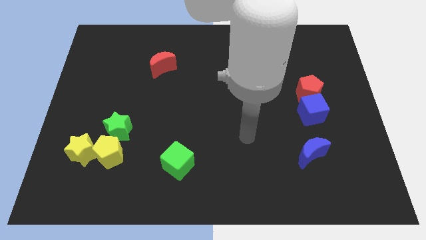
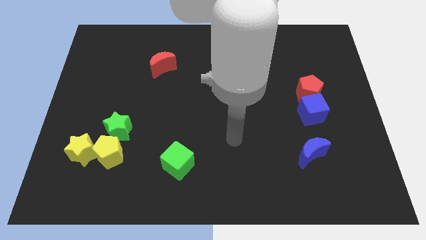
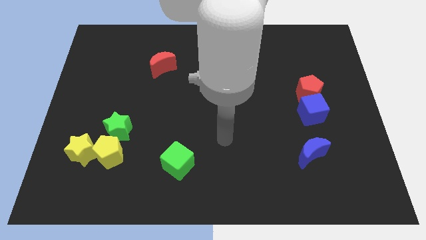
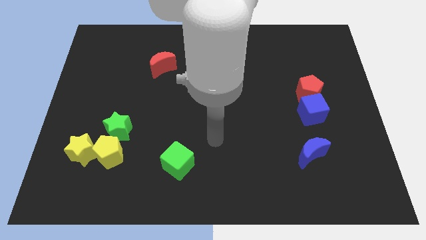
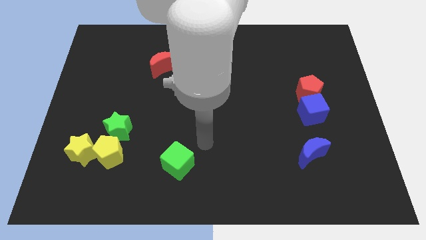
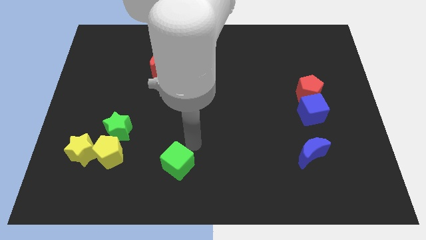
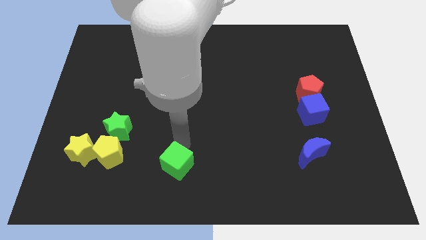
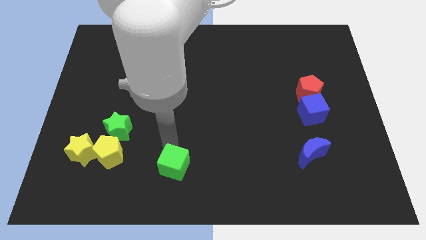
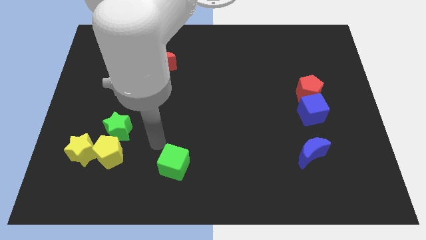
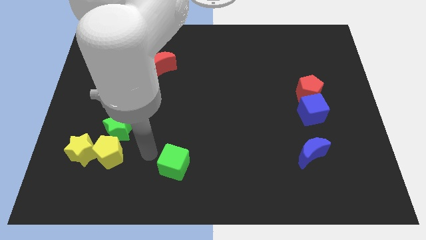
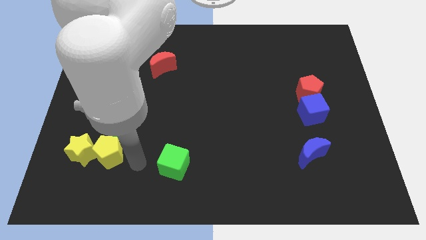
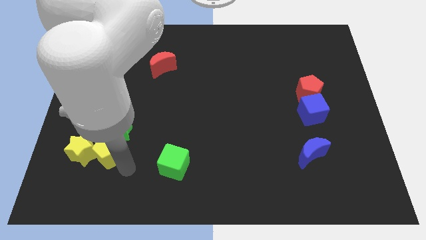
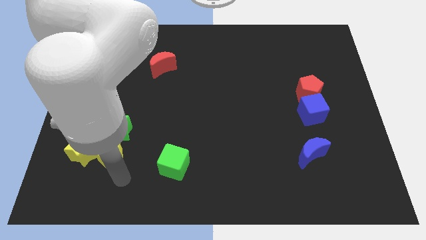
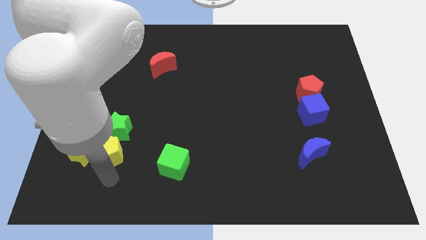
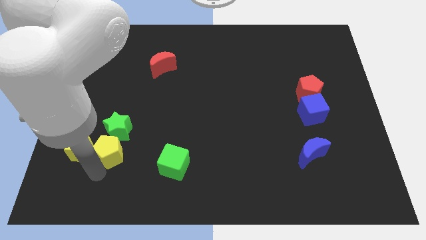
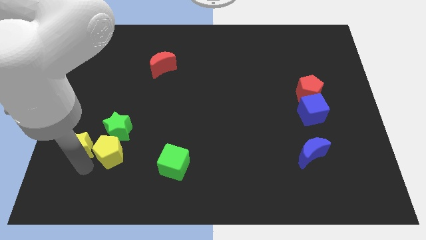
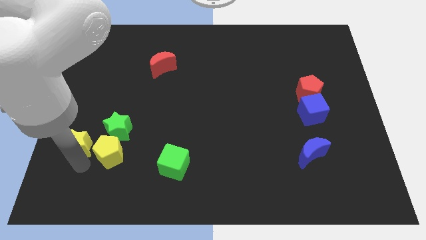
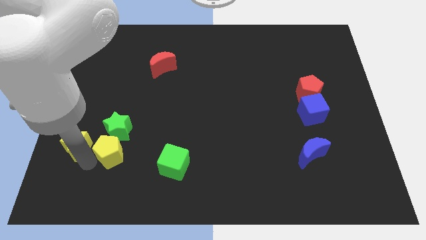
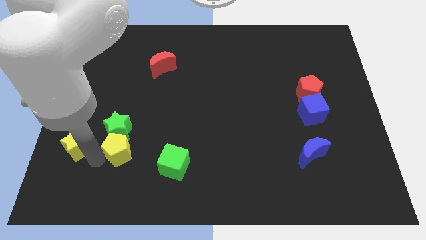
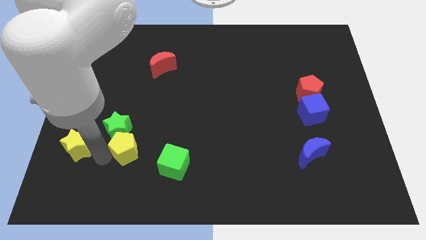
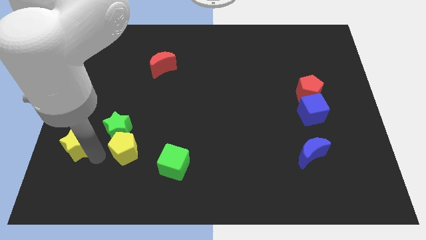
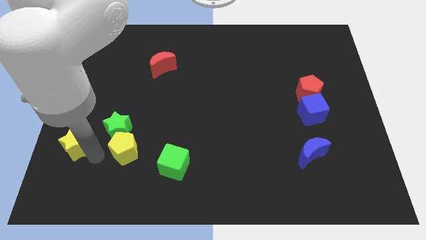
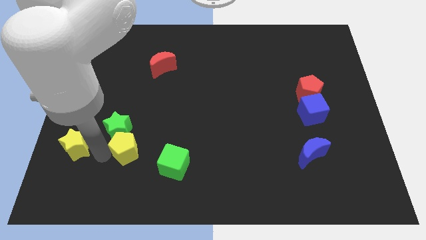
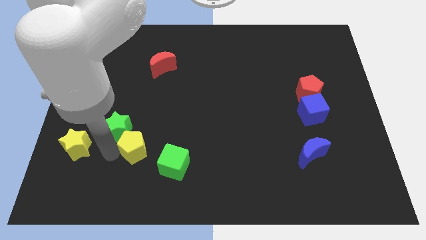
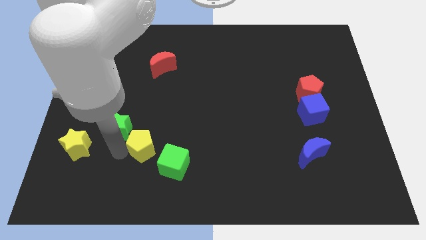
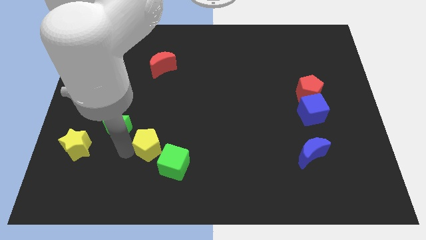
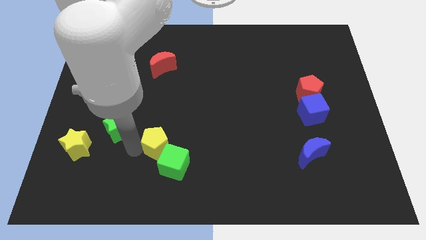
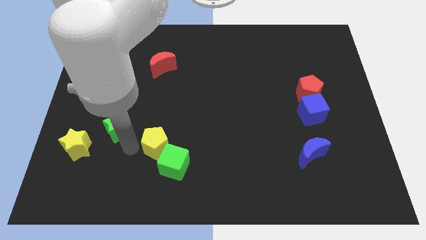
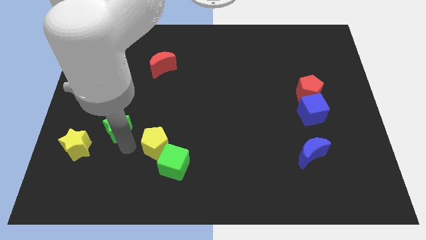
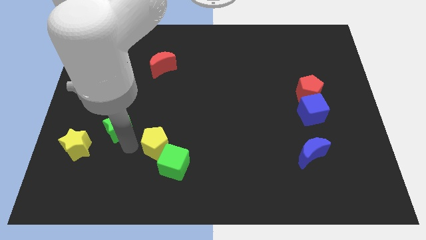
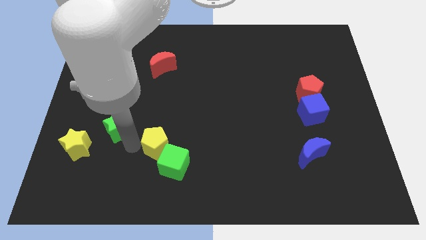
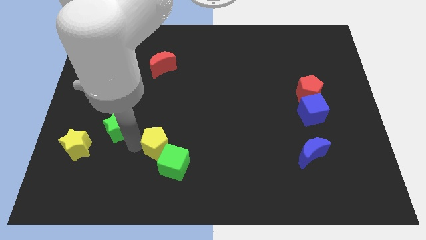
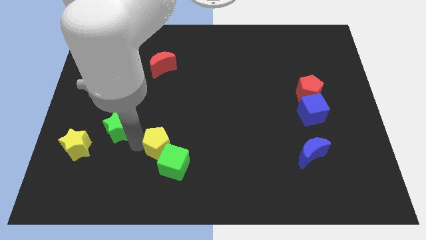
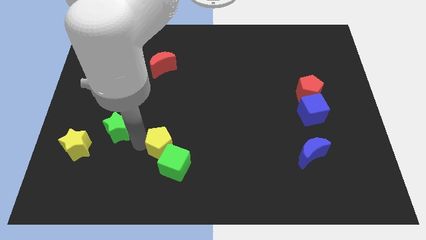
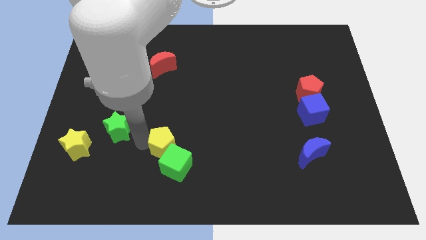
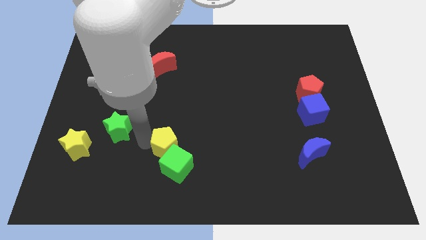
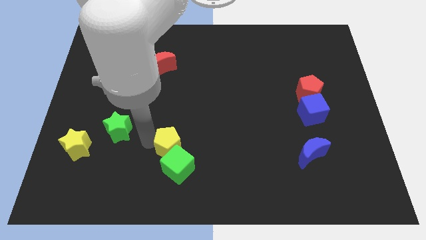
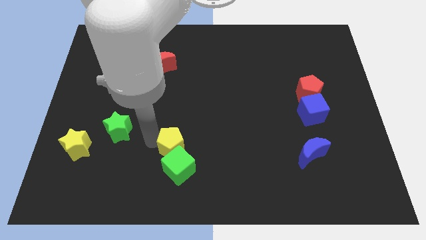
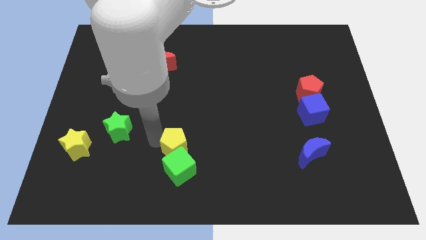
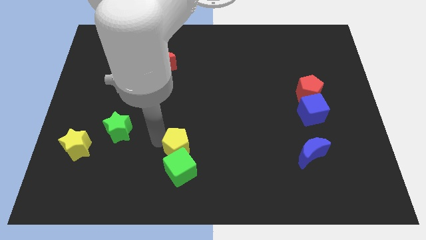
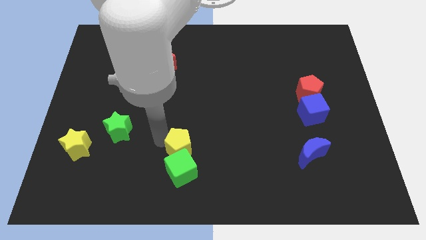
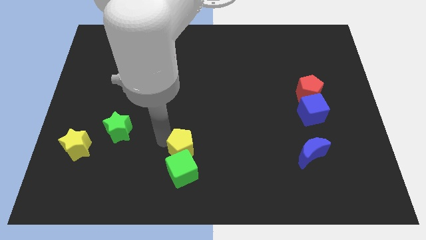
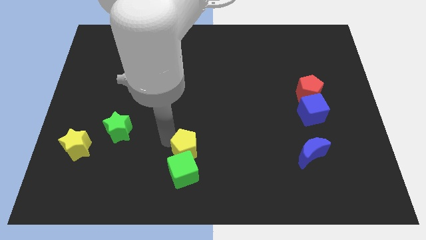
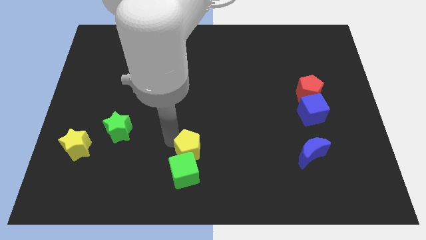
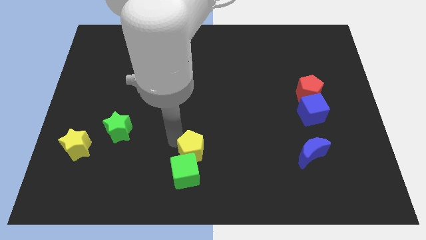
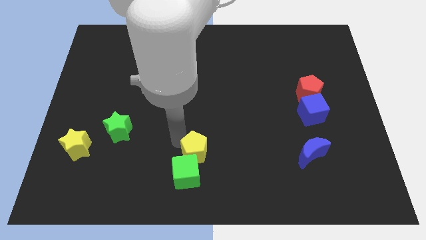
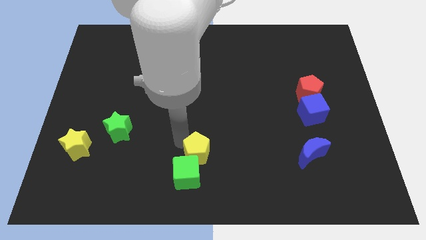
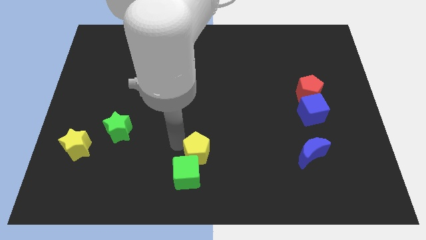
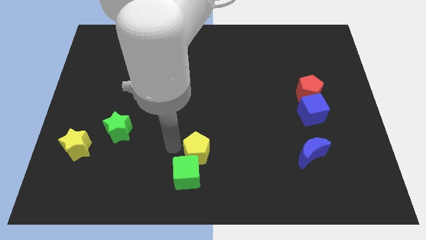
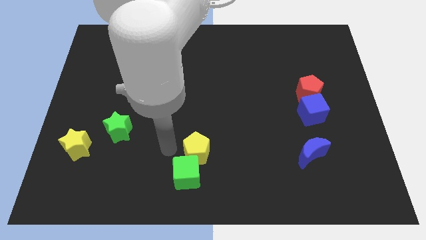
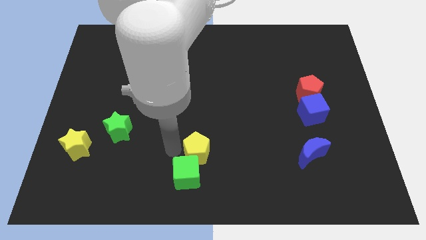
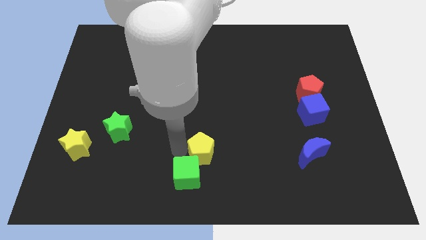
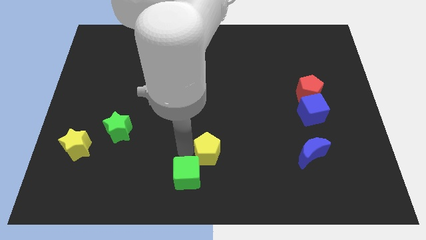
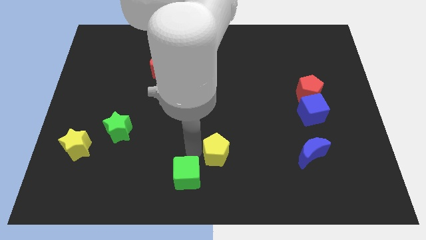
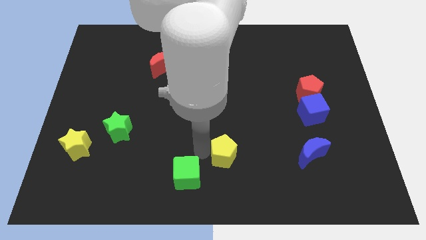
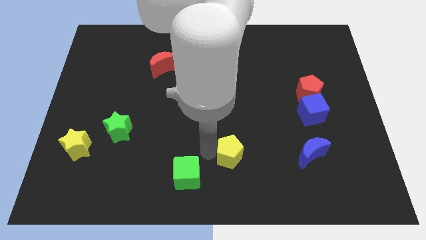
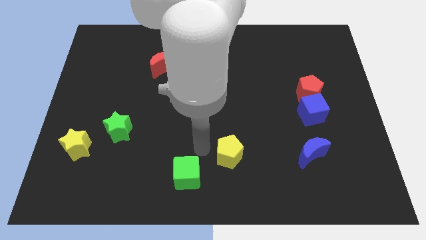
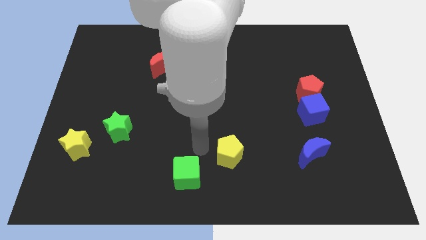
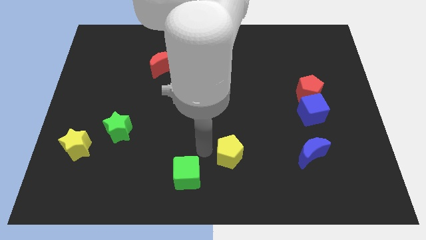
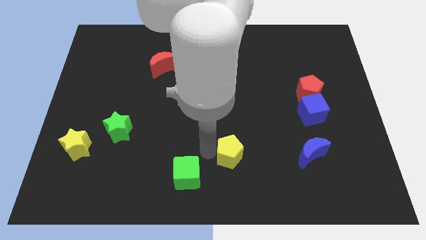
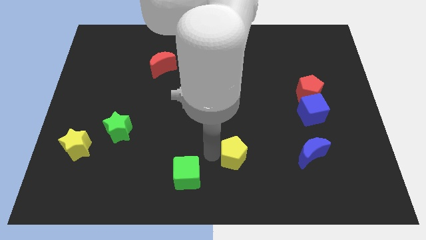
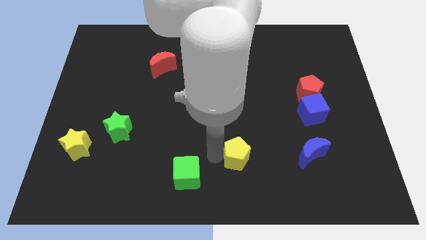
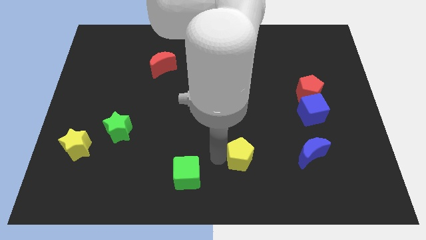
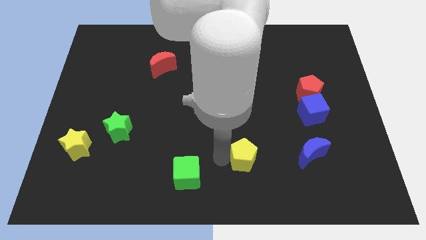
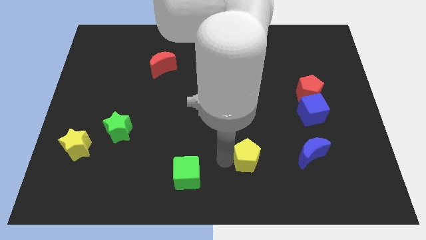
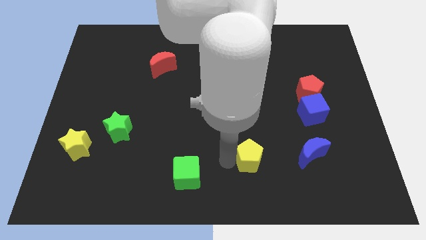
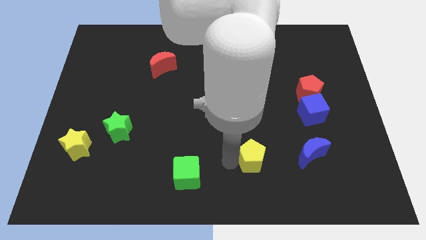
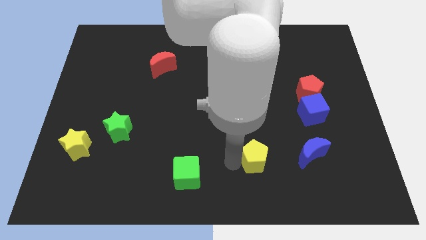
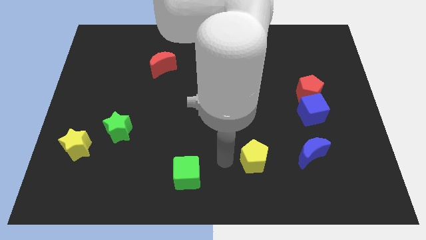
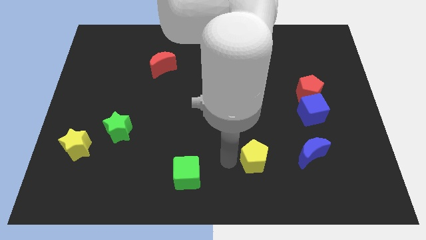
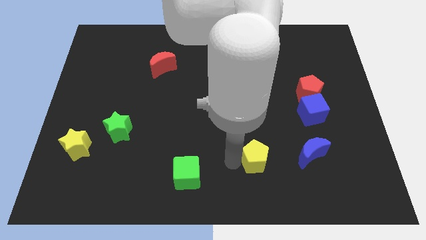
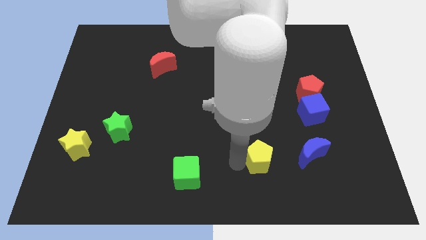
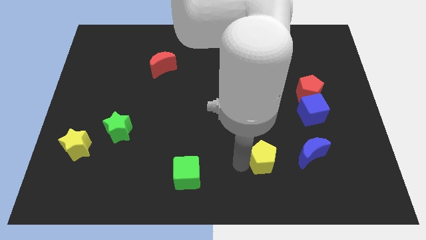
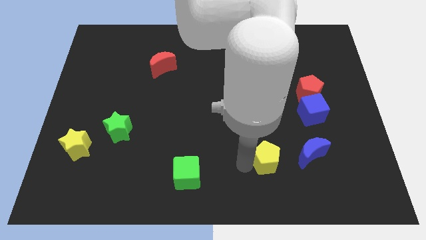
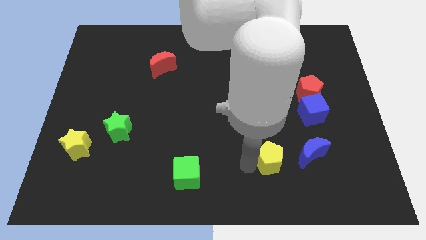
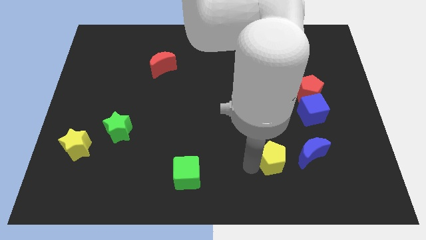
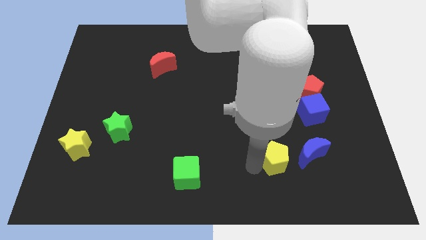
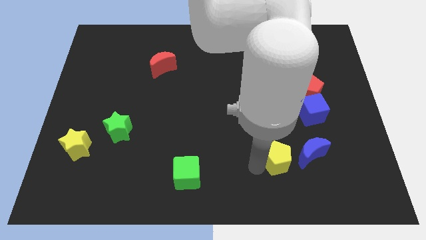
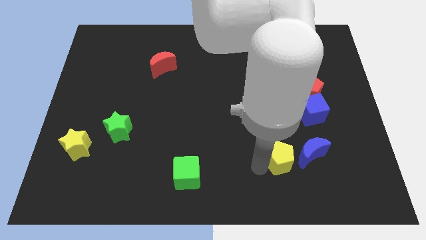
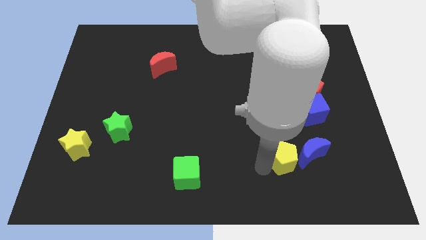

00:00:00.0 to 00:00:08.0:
slide the yellow pentagon towards the blue moon
